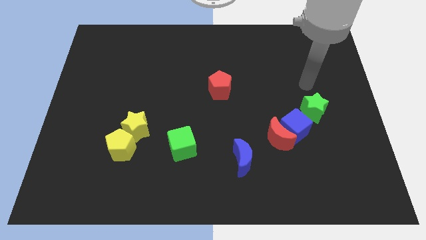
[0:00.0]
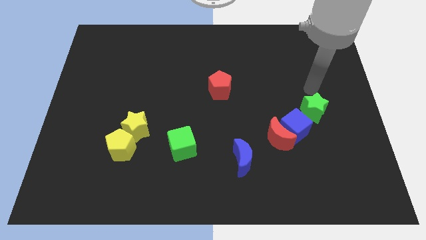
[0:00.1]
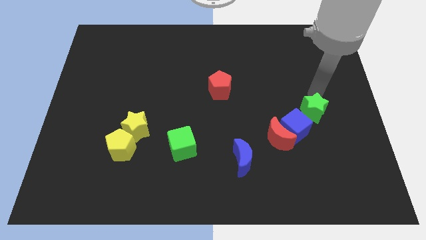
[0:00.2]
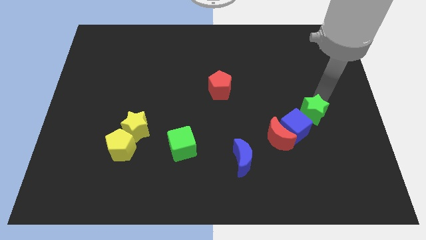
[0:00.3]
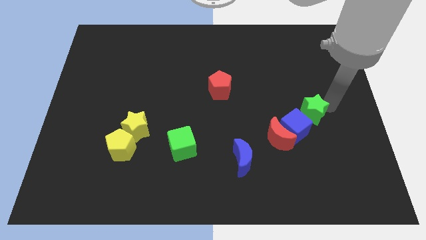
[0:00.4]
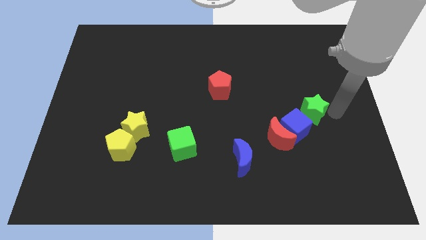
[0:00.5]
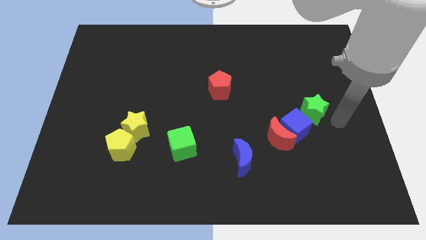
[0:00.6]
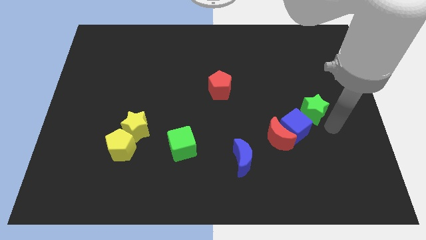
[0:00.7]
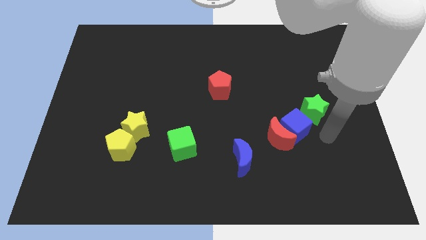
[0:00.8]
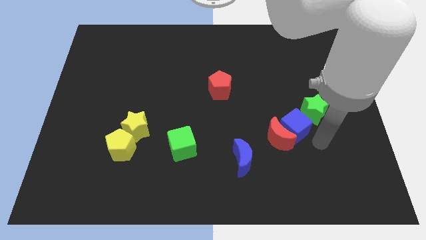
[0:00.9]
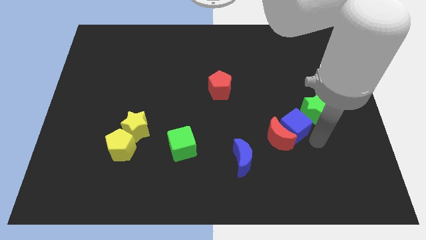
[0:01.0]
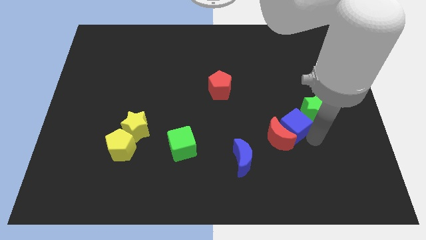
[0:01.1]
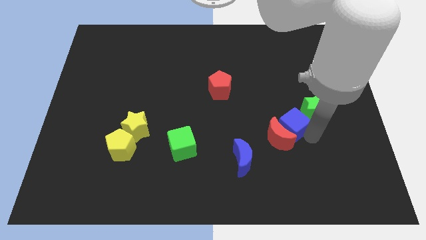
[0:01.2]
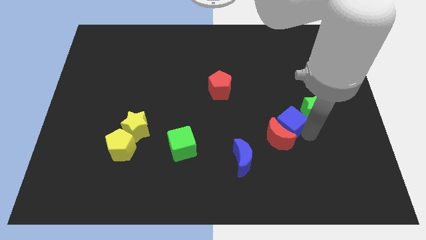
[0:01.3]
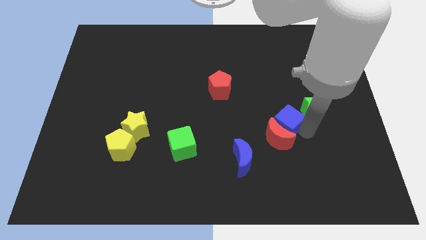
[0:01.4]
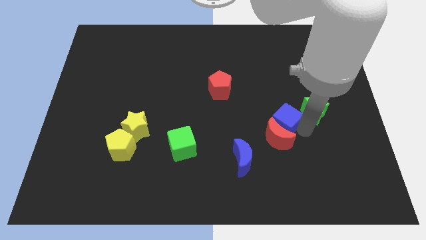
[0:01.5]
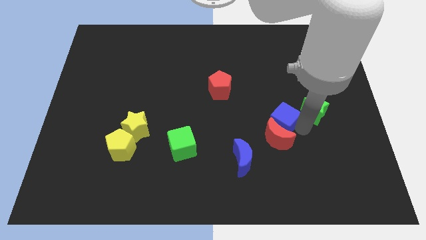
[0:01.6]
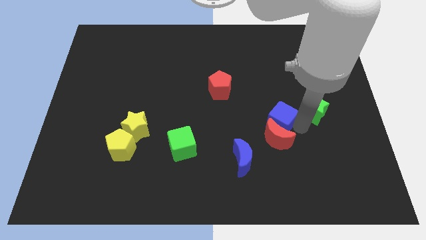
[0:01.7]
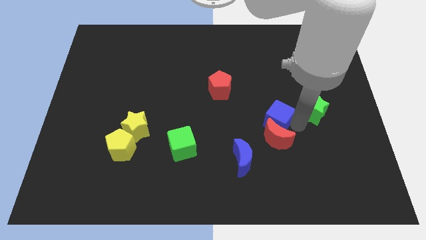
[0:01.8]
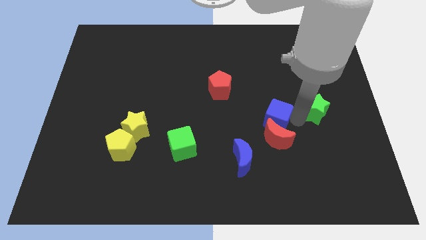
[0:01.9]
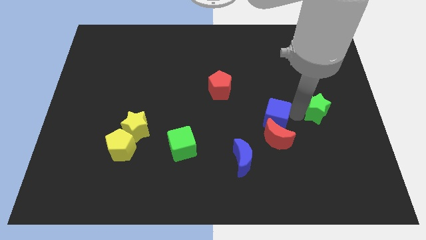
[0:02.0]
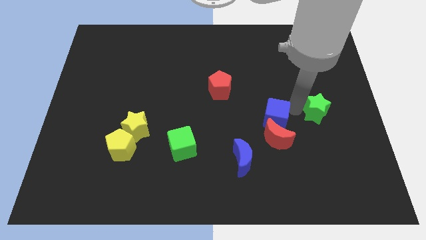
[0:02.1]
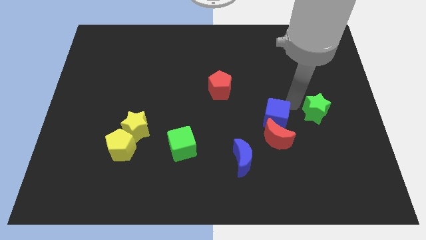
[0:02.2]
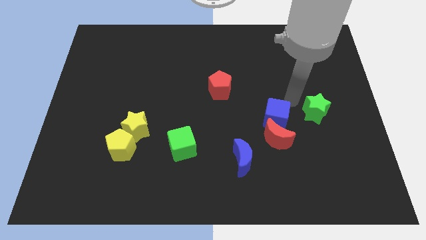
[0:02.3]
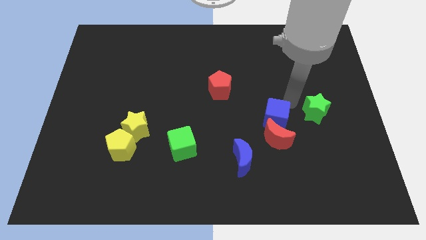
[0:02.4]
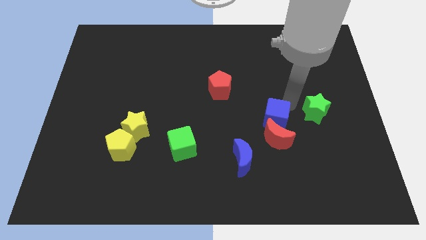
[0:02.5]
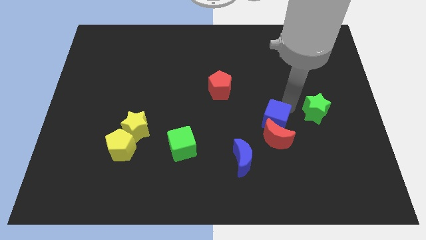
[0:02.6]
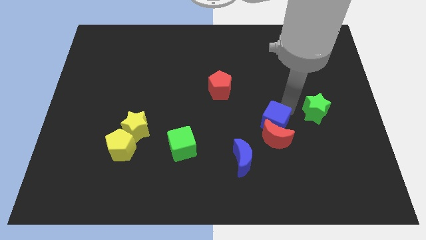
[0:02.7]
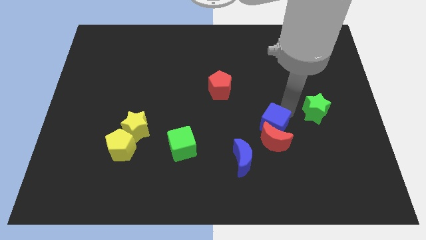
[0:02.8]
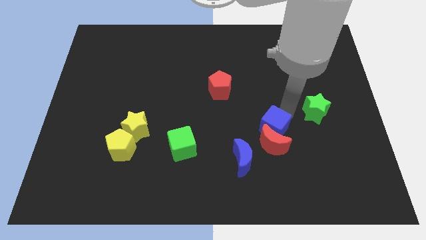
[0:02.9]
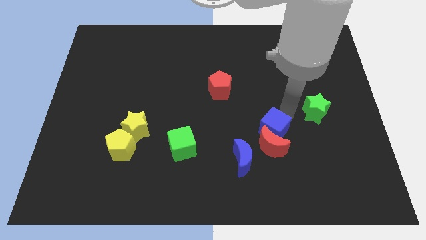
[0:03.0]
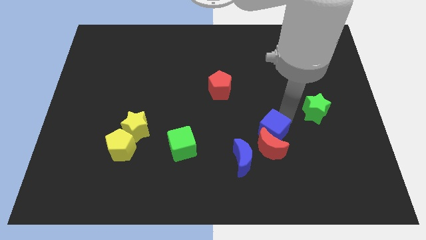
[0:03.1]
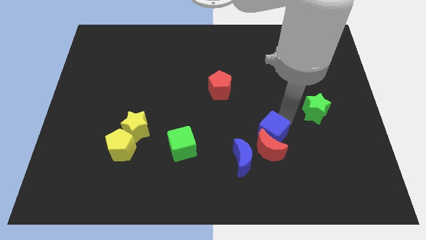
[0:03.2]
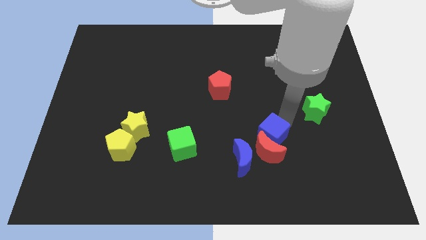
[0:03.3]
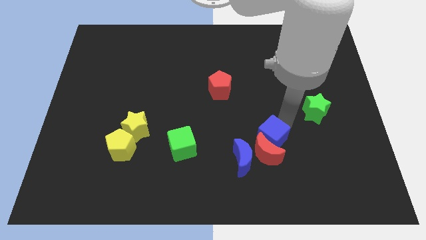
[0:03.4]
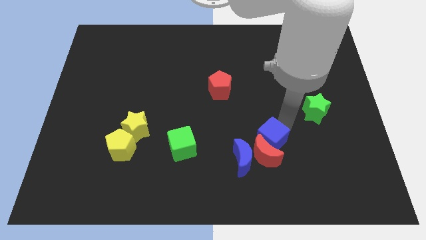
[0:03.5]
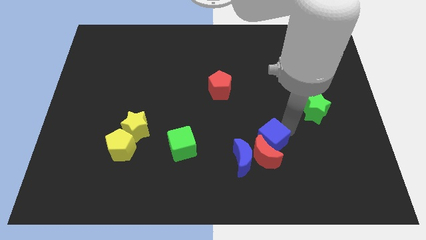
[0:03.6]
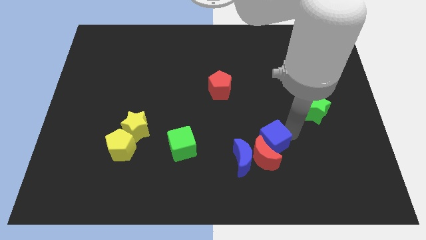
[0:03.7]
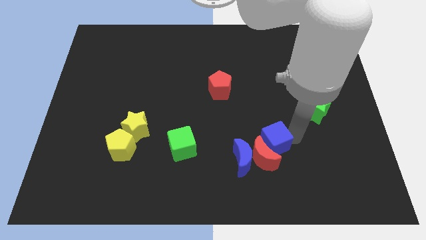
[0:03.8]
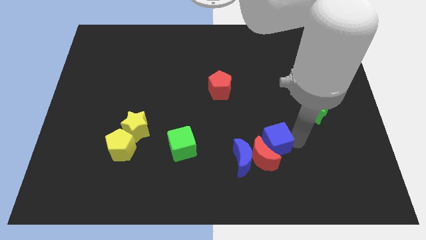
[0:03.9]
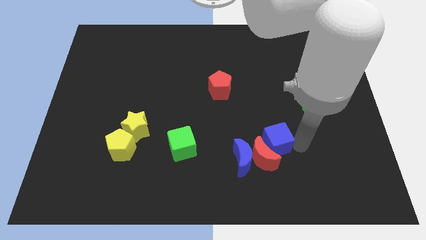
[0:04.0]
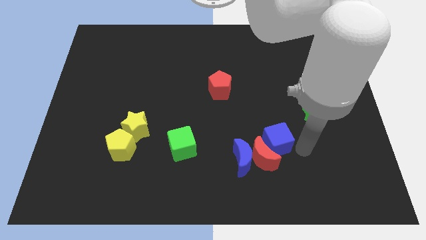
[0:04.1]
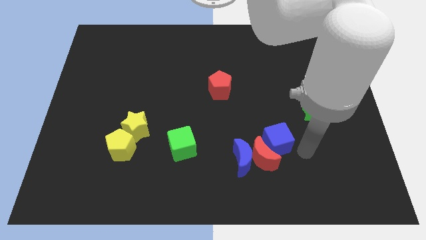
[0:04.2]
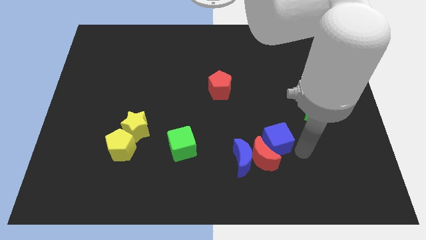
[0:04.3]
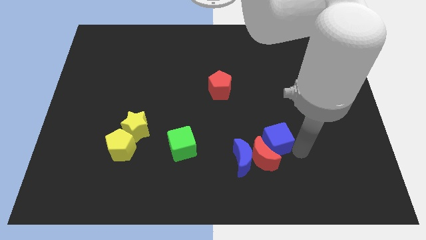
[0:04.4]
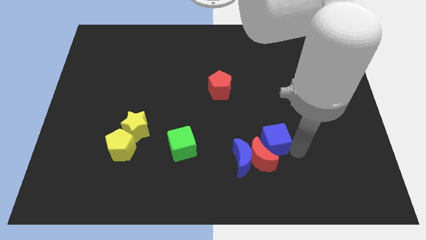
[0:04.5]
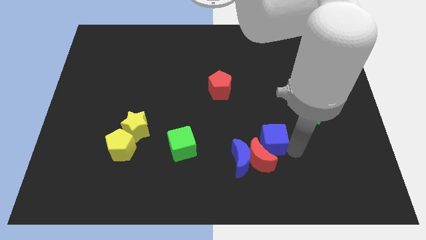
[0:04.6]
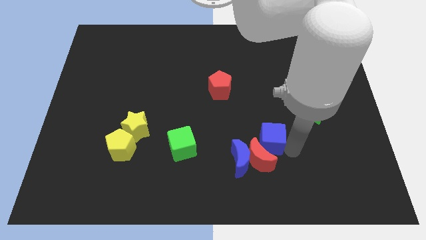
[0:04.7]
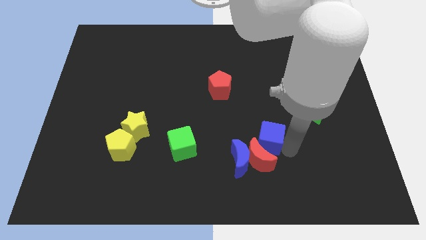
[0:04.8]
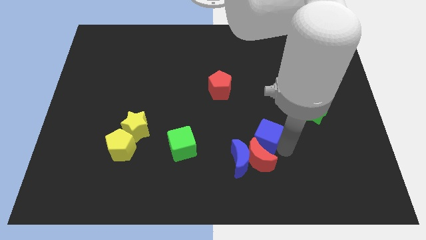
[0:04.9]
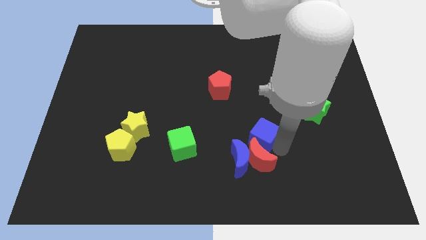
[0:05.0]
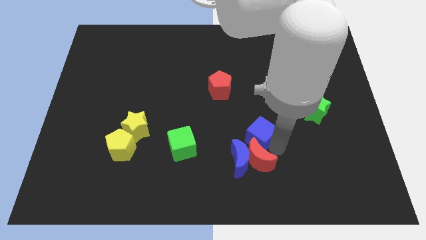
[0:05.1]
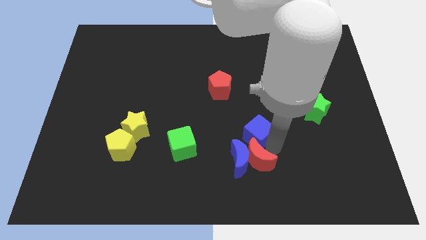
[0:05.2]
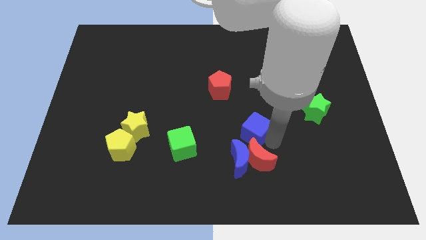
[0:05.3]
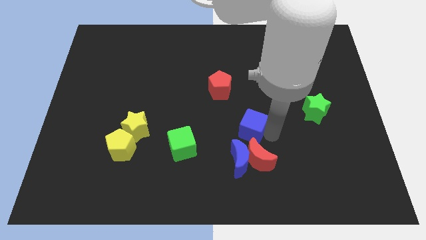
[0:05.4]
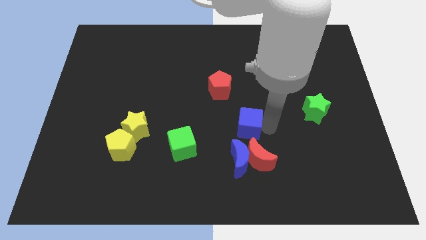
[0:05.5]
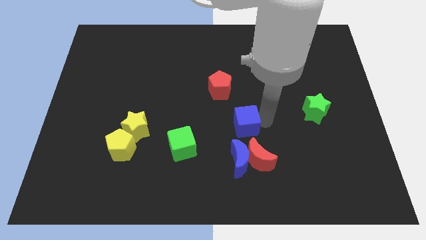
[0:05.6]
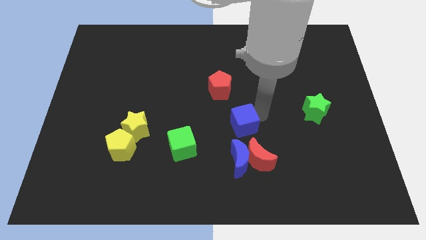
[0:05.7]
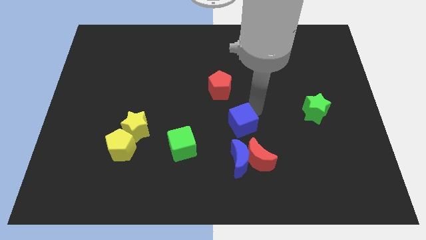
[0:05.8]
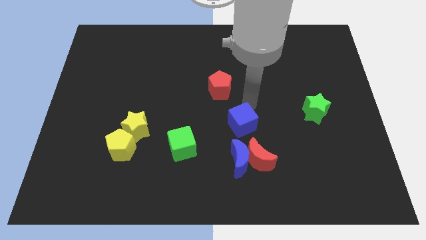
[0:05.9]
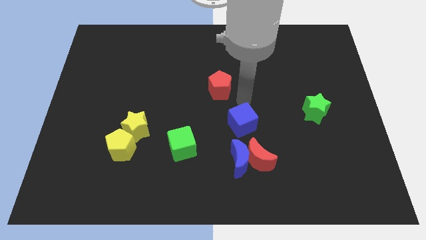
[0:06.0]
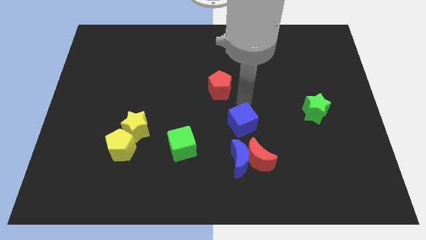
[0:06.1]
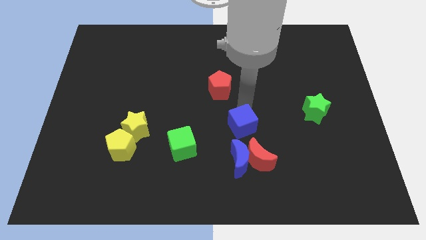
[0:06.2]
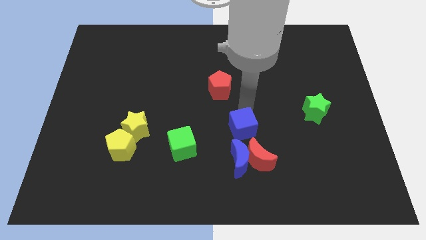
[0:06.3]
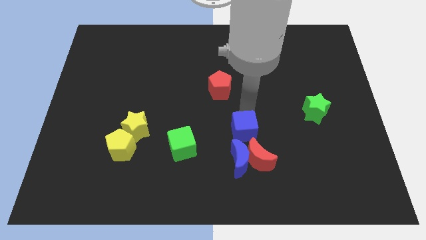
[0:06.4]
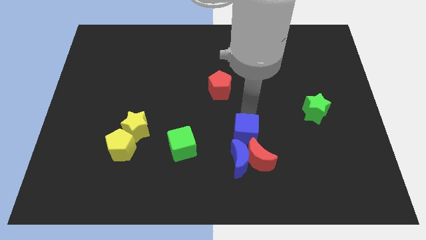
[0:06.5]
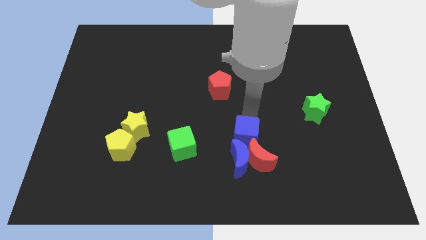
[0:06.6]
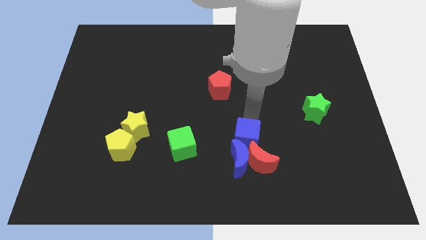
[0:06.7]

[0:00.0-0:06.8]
put the blue cube to the blue moon
